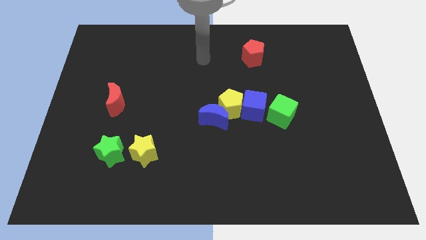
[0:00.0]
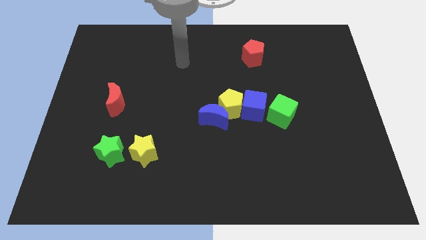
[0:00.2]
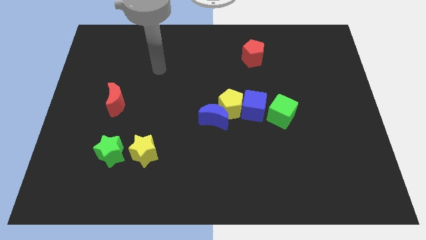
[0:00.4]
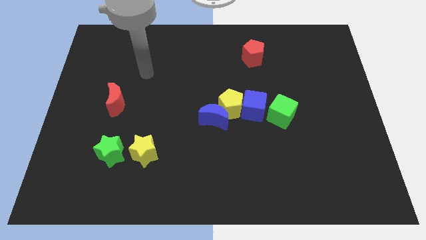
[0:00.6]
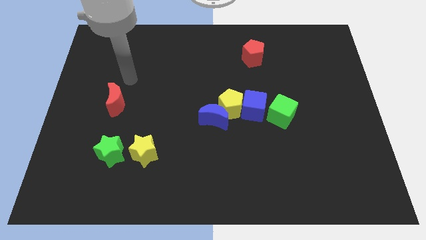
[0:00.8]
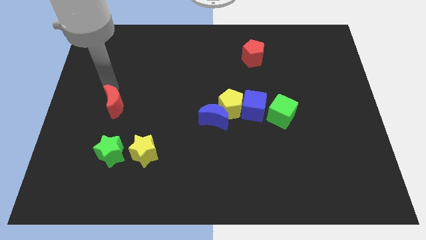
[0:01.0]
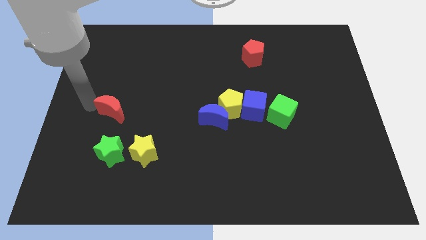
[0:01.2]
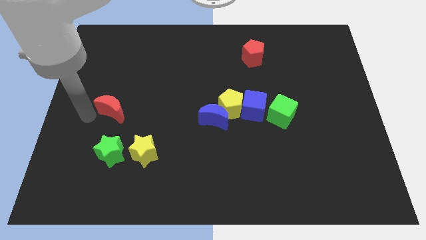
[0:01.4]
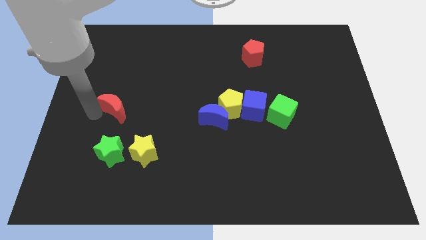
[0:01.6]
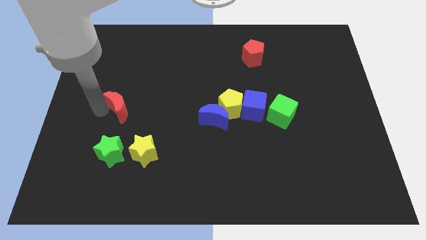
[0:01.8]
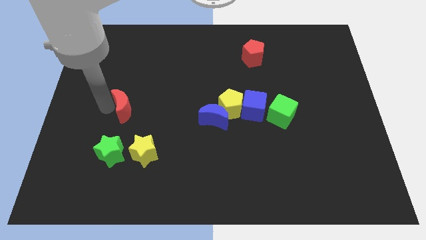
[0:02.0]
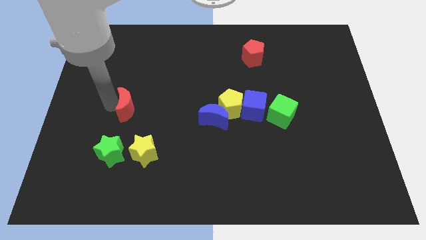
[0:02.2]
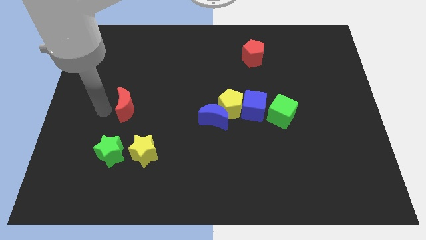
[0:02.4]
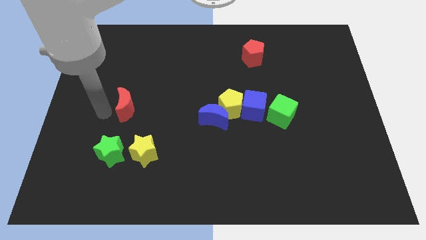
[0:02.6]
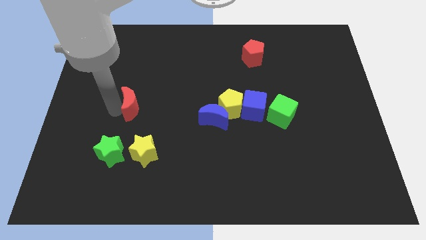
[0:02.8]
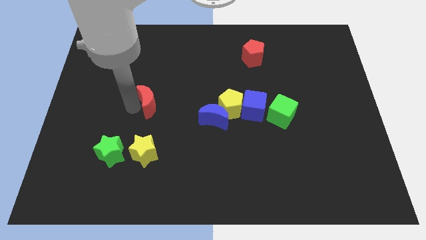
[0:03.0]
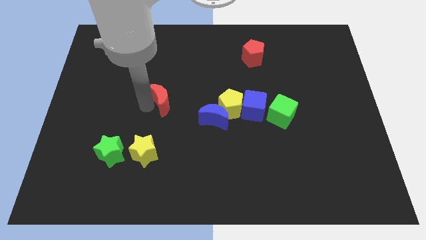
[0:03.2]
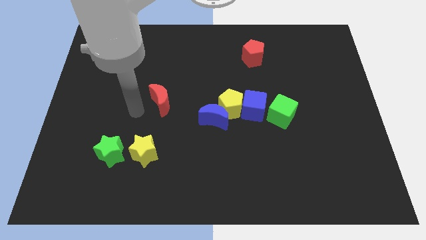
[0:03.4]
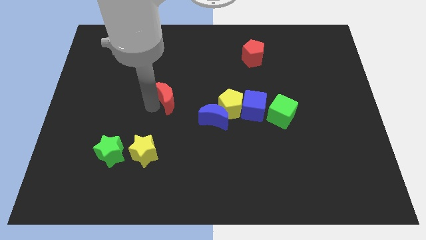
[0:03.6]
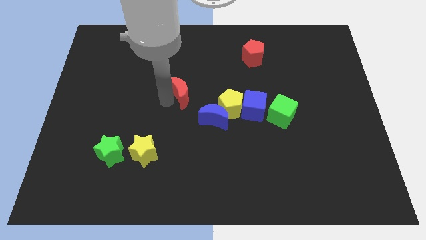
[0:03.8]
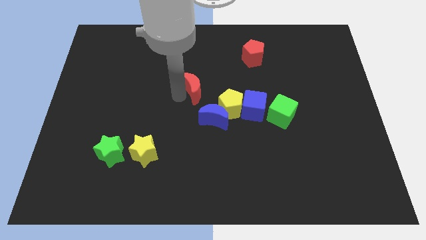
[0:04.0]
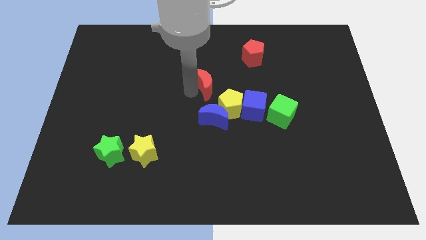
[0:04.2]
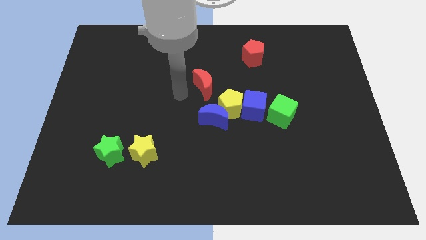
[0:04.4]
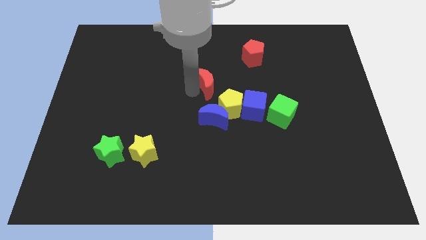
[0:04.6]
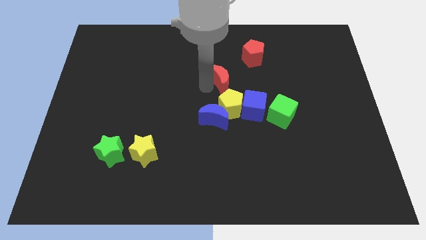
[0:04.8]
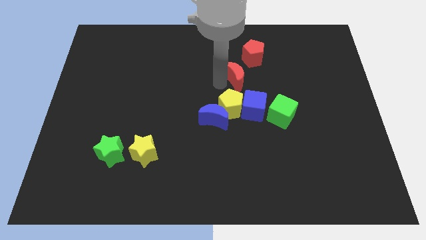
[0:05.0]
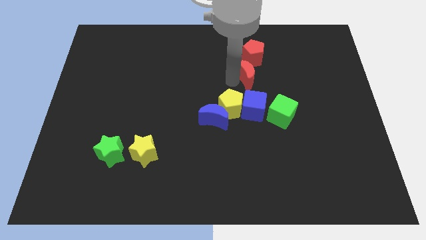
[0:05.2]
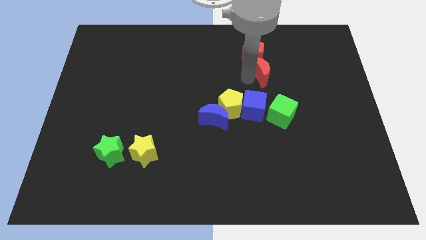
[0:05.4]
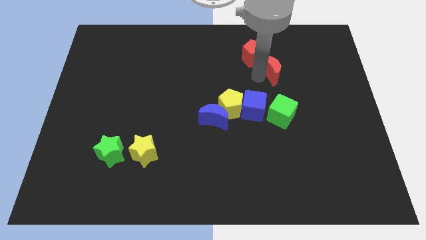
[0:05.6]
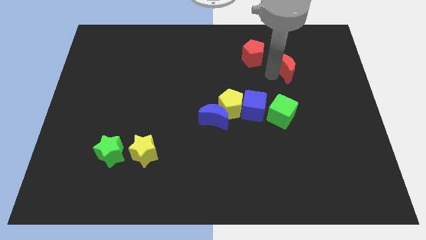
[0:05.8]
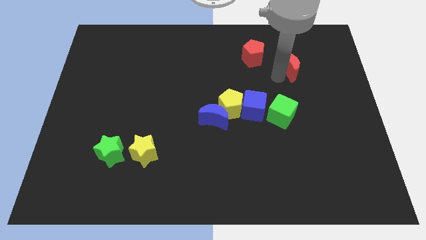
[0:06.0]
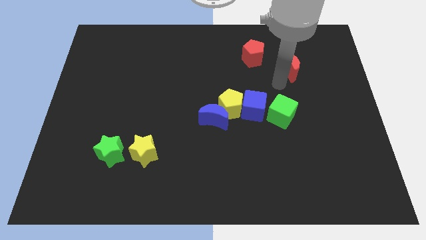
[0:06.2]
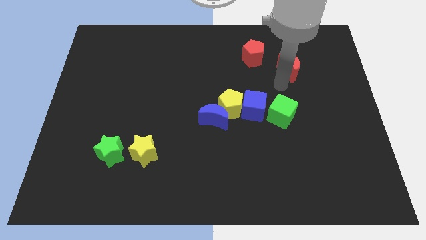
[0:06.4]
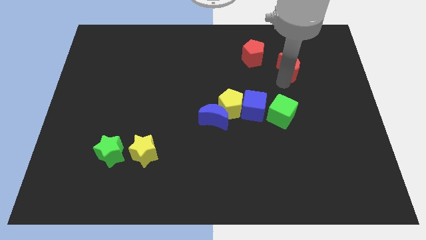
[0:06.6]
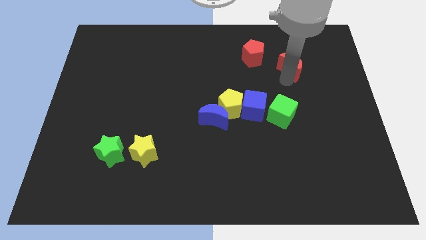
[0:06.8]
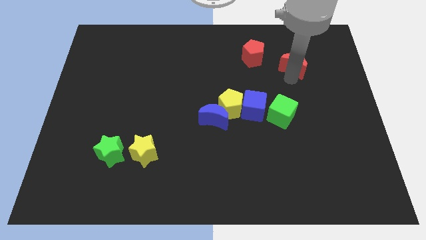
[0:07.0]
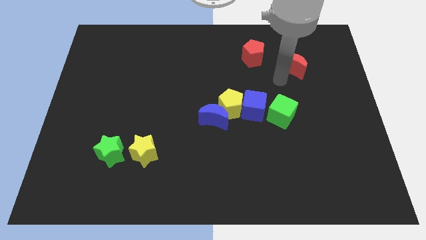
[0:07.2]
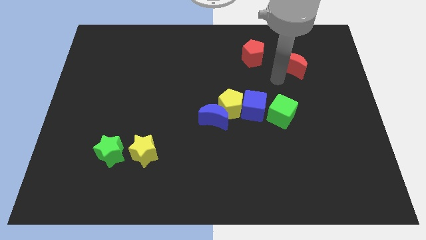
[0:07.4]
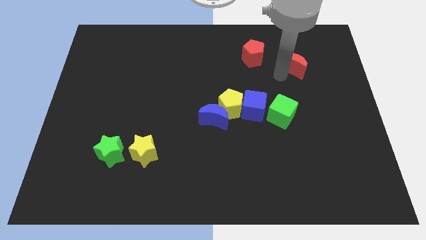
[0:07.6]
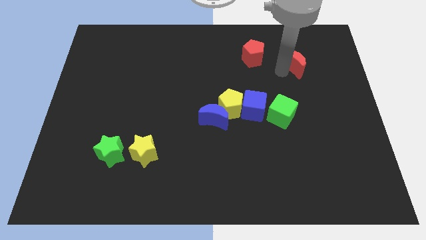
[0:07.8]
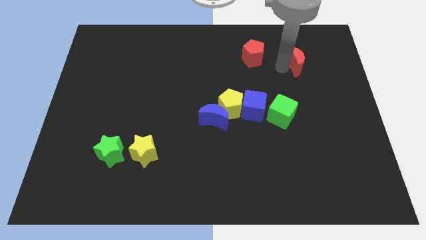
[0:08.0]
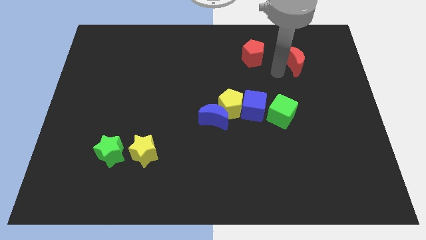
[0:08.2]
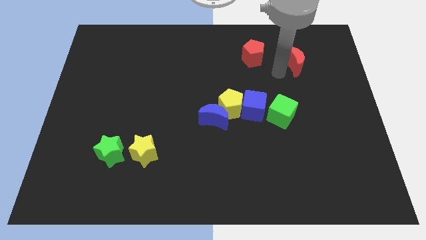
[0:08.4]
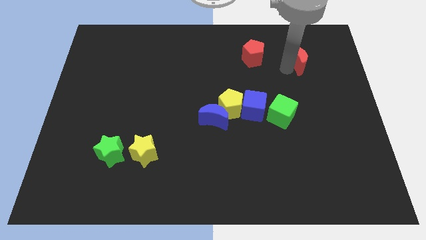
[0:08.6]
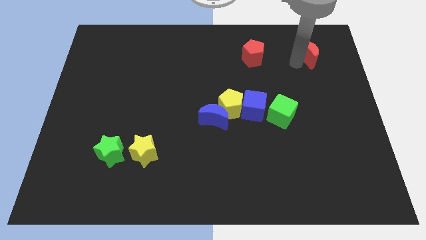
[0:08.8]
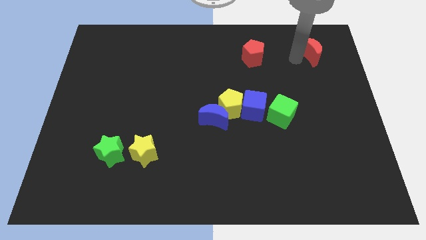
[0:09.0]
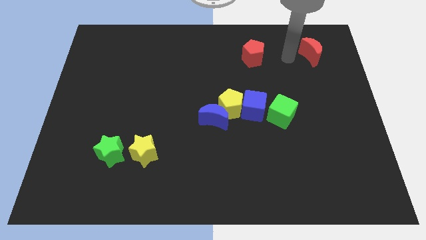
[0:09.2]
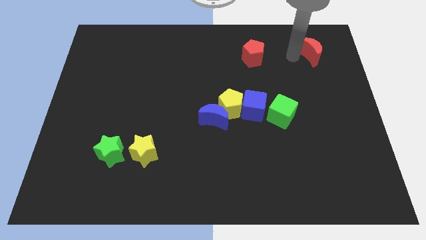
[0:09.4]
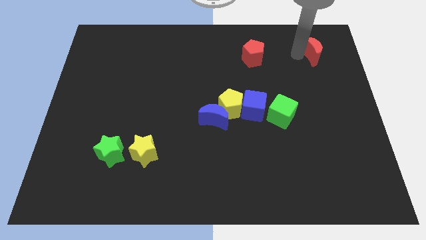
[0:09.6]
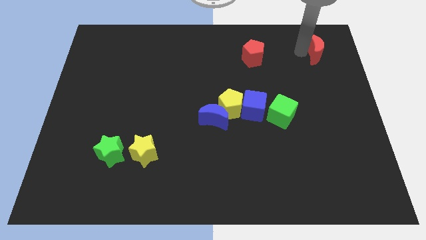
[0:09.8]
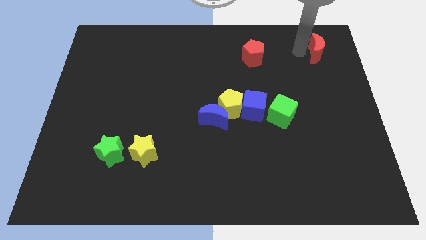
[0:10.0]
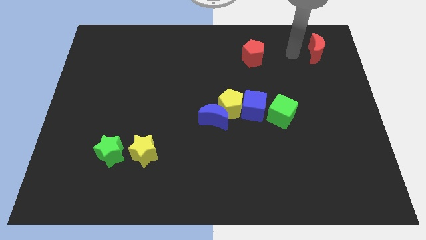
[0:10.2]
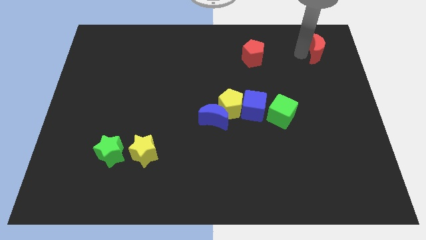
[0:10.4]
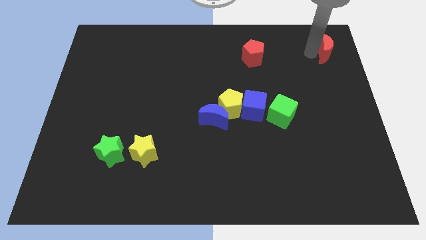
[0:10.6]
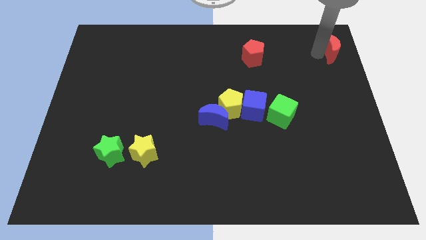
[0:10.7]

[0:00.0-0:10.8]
put the red moon to the upper right corner

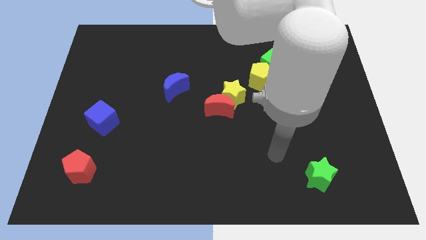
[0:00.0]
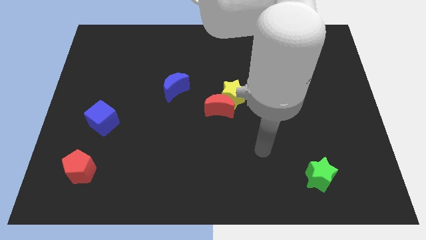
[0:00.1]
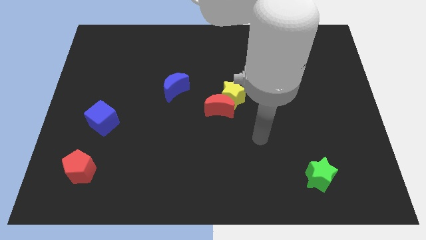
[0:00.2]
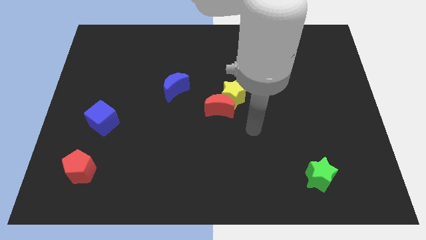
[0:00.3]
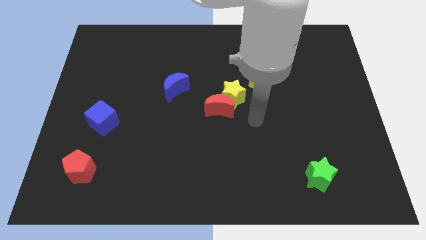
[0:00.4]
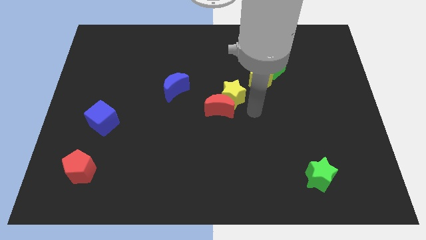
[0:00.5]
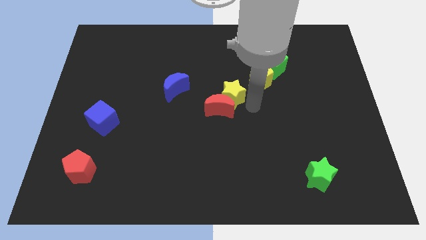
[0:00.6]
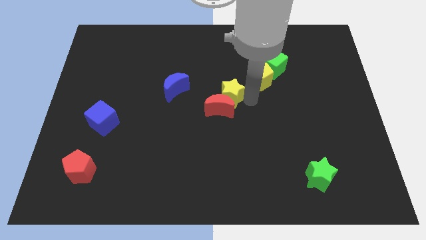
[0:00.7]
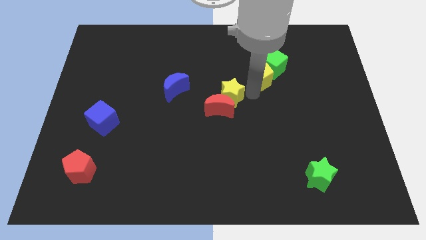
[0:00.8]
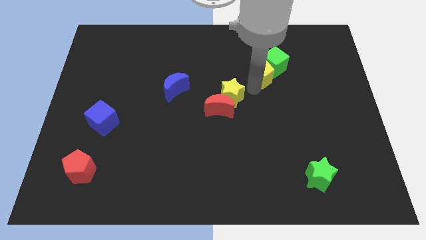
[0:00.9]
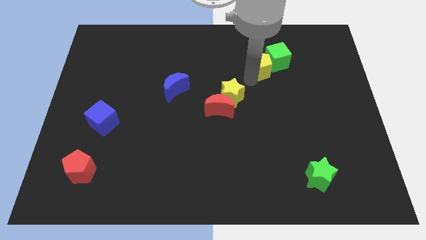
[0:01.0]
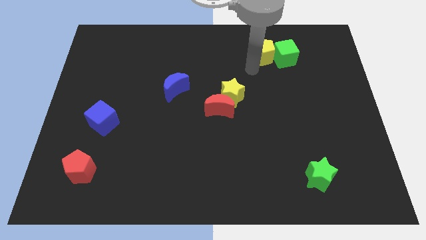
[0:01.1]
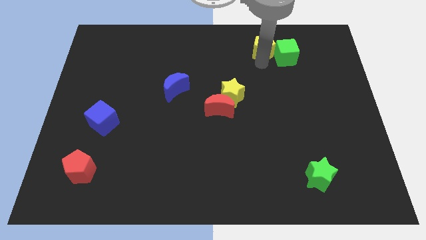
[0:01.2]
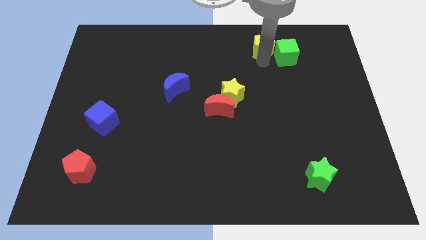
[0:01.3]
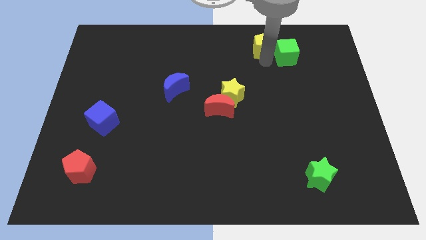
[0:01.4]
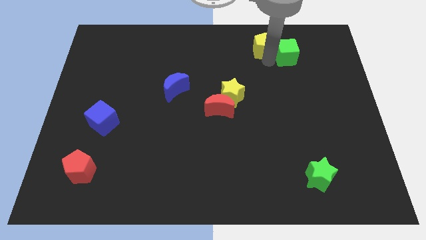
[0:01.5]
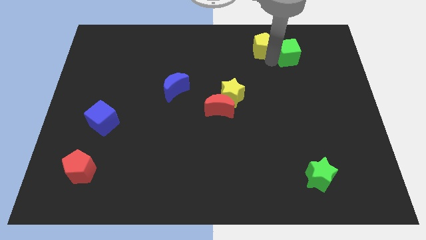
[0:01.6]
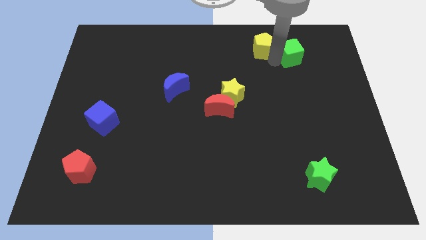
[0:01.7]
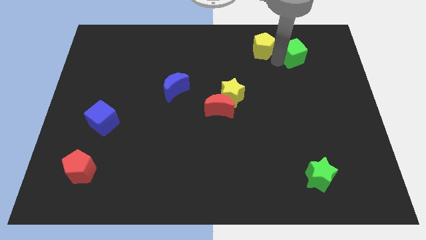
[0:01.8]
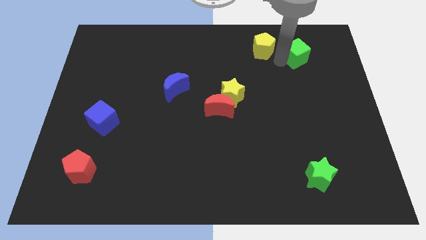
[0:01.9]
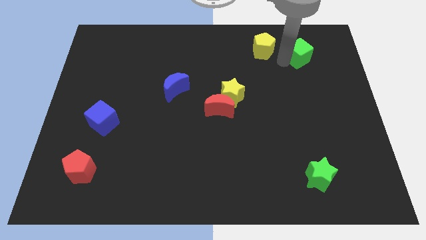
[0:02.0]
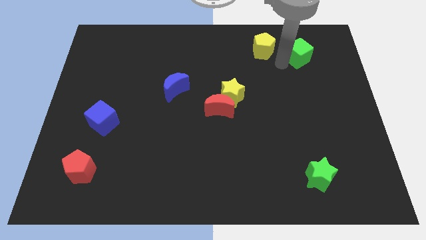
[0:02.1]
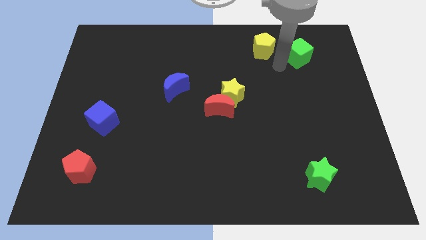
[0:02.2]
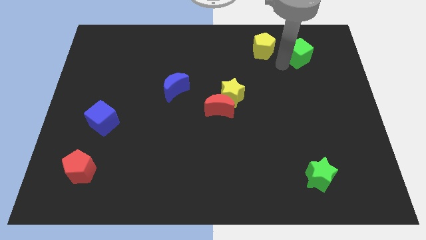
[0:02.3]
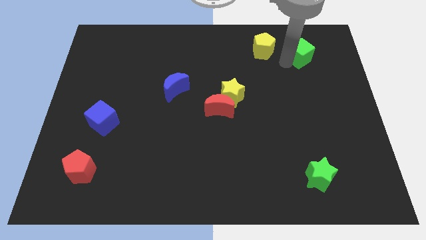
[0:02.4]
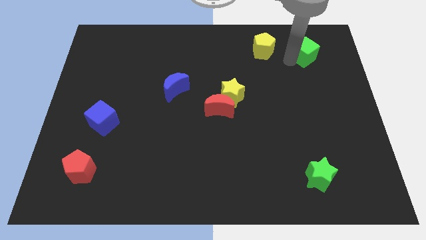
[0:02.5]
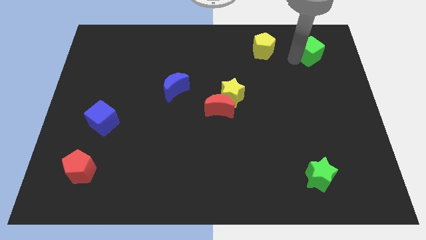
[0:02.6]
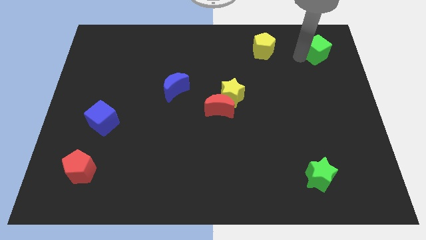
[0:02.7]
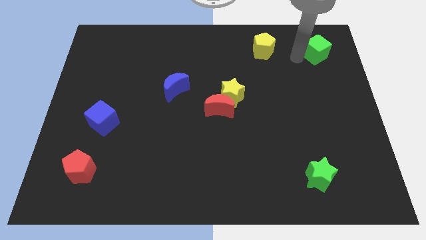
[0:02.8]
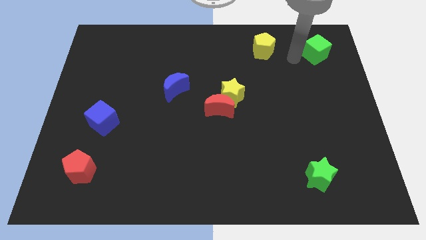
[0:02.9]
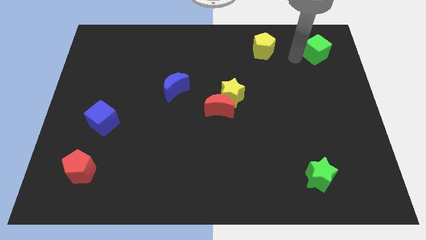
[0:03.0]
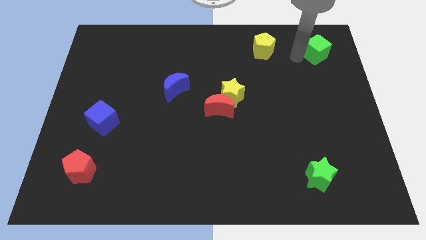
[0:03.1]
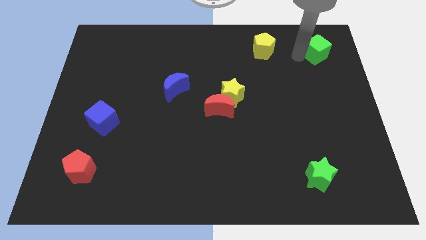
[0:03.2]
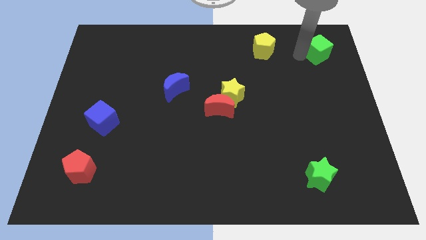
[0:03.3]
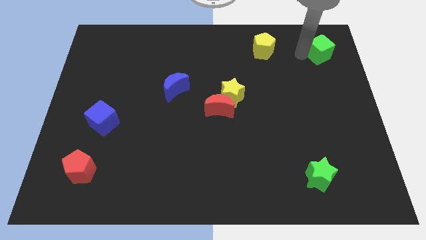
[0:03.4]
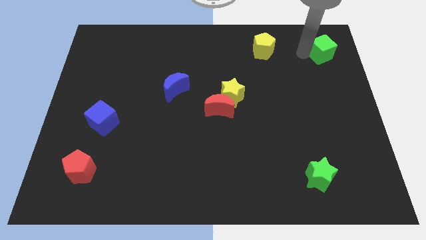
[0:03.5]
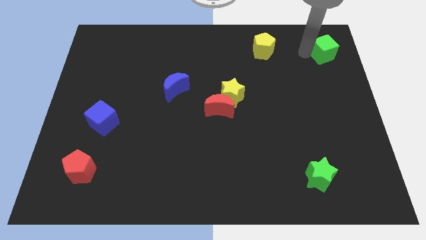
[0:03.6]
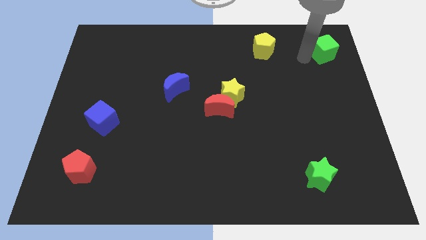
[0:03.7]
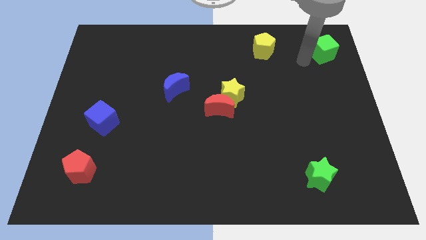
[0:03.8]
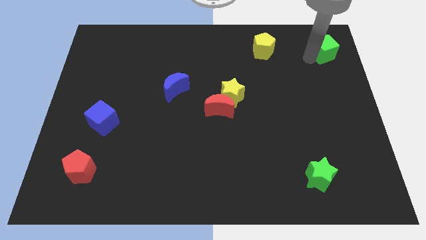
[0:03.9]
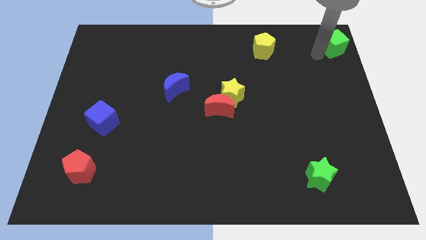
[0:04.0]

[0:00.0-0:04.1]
put the green cube to the top right of the board
